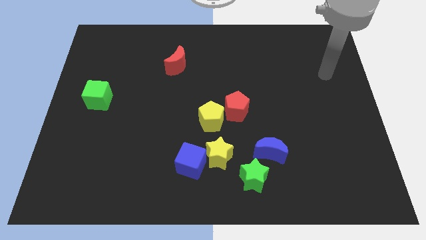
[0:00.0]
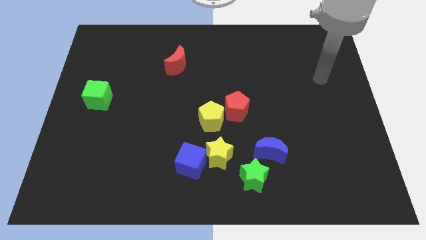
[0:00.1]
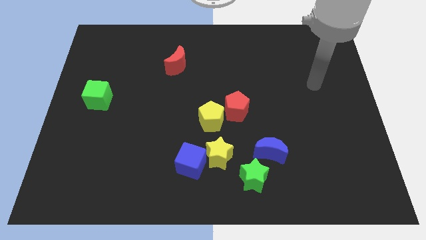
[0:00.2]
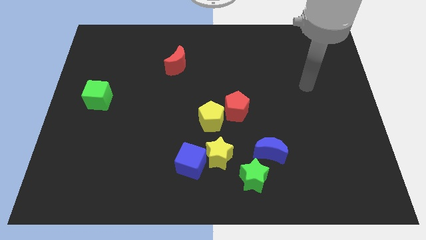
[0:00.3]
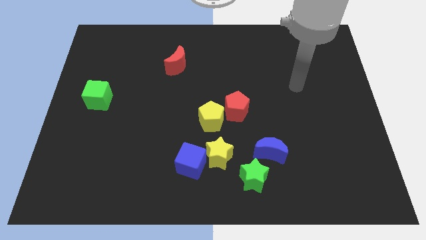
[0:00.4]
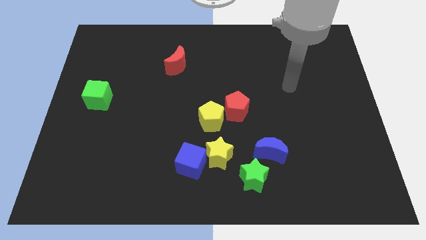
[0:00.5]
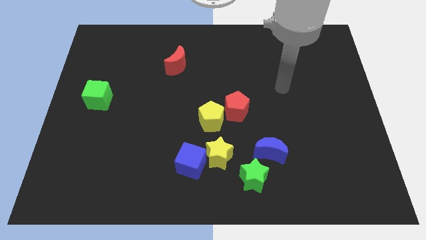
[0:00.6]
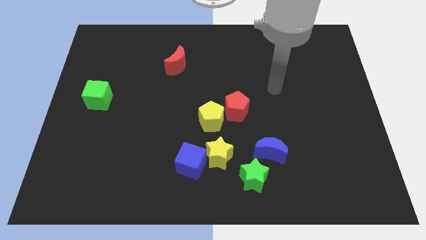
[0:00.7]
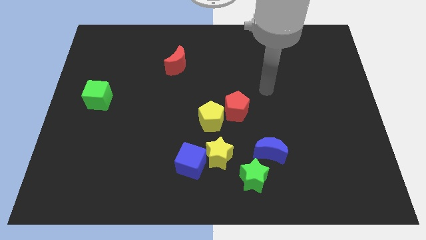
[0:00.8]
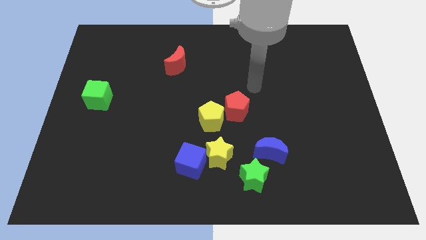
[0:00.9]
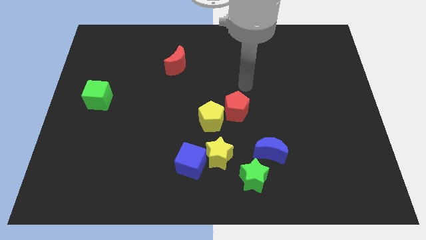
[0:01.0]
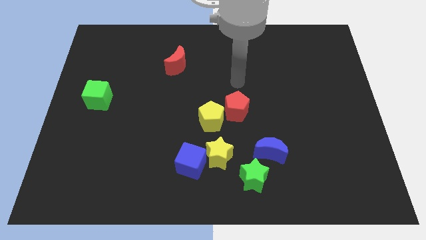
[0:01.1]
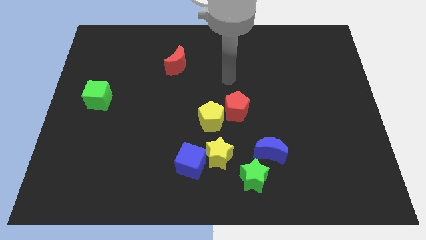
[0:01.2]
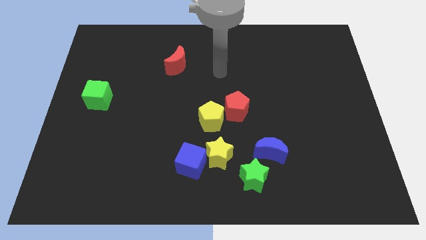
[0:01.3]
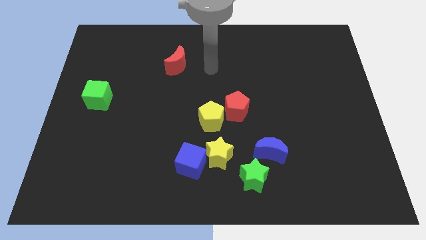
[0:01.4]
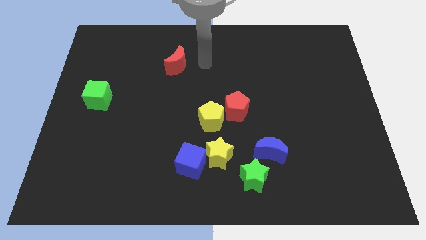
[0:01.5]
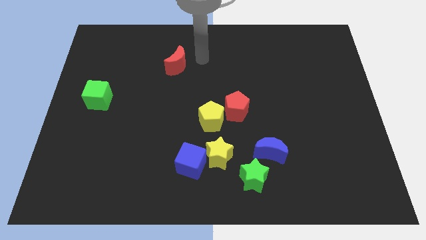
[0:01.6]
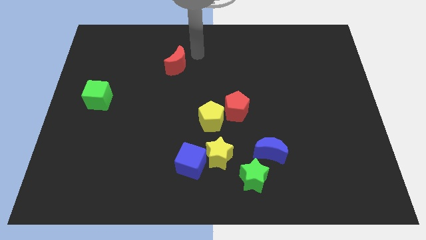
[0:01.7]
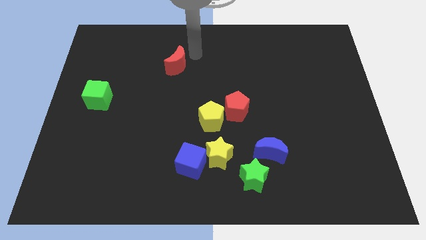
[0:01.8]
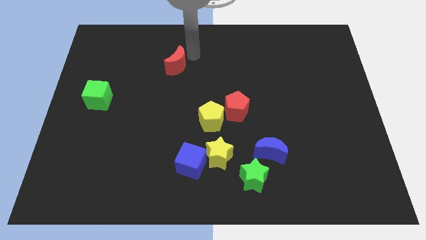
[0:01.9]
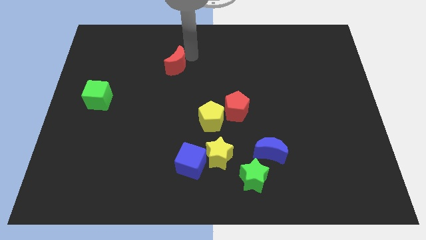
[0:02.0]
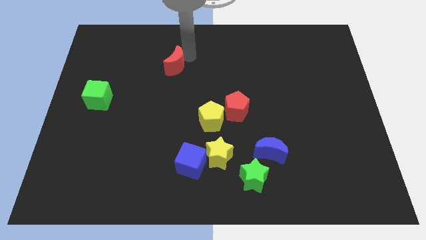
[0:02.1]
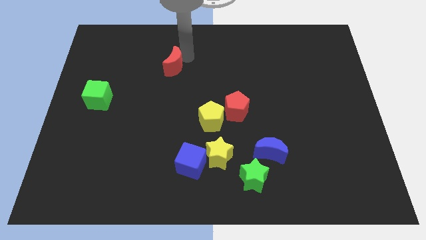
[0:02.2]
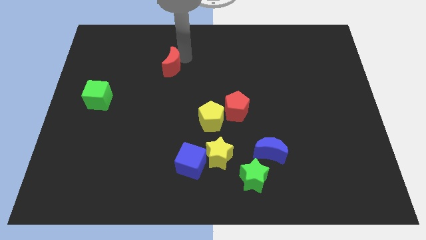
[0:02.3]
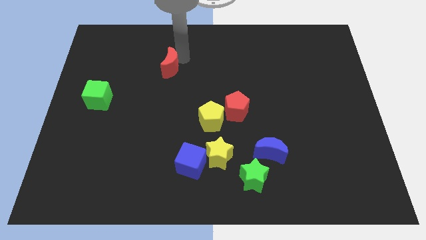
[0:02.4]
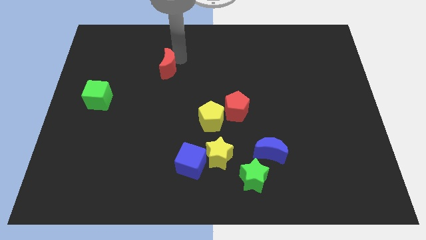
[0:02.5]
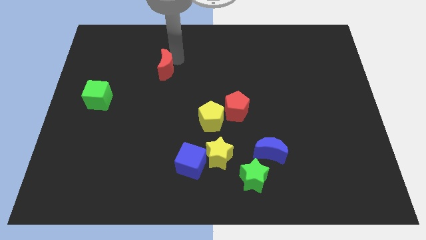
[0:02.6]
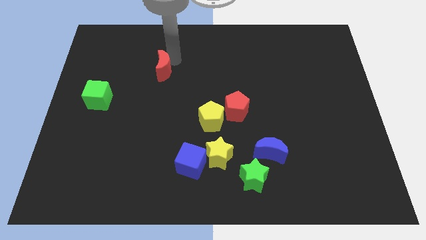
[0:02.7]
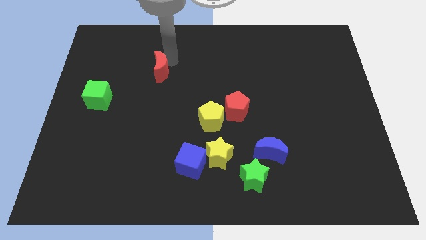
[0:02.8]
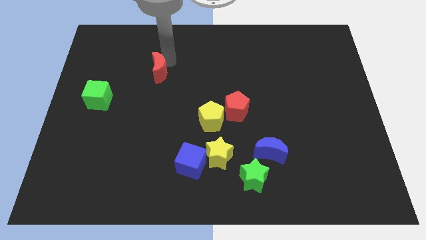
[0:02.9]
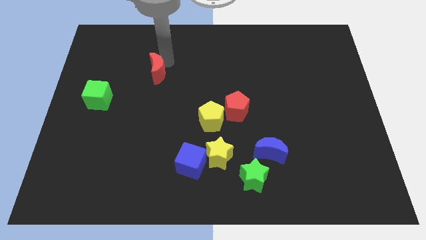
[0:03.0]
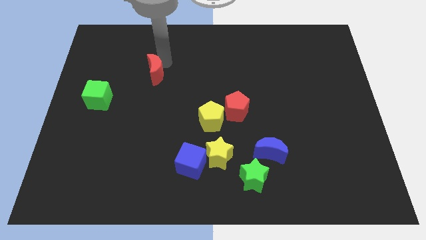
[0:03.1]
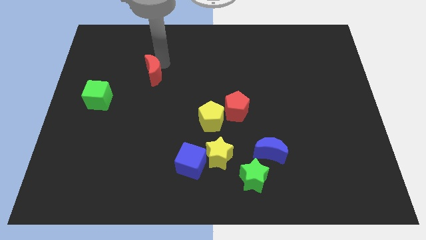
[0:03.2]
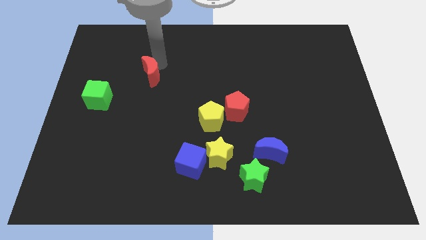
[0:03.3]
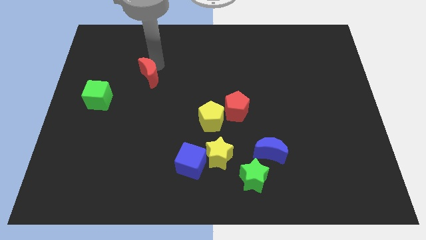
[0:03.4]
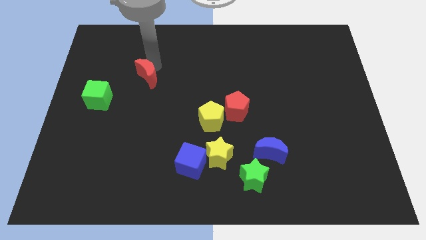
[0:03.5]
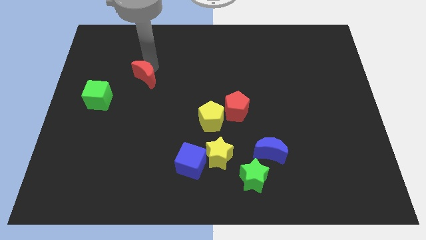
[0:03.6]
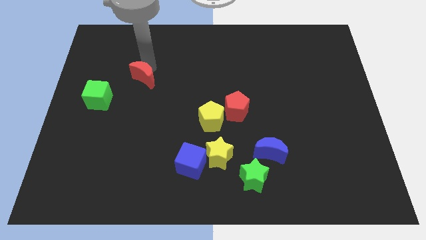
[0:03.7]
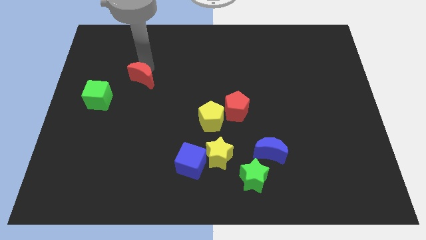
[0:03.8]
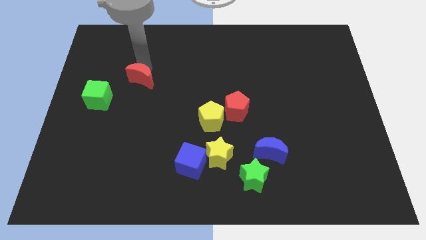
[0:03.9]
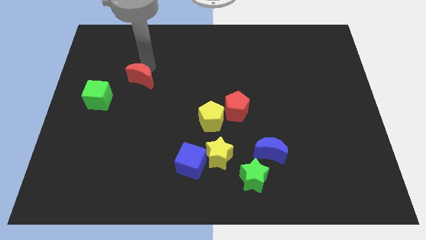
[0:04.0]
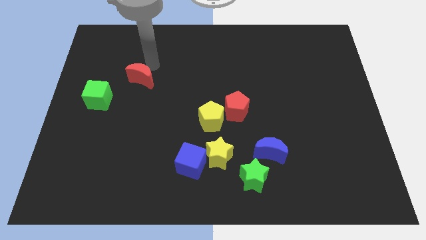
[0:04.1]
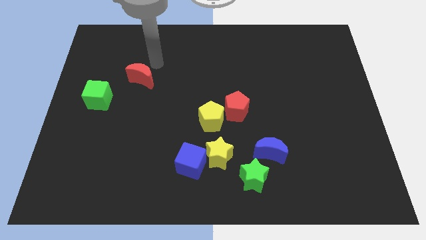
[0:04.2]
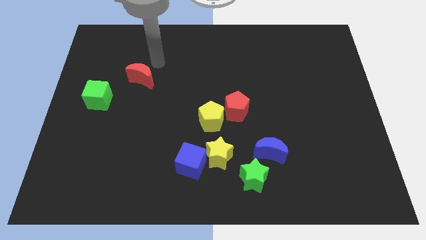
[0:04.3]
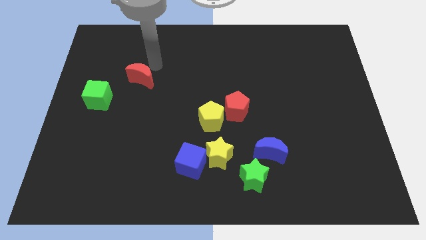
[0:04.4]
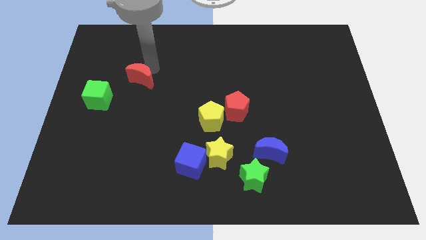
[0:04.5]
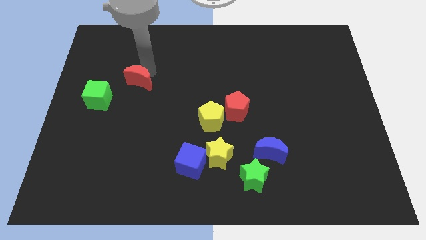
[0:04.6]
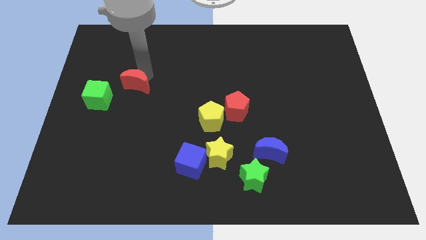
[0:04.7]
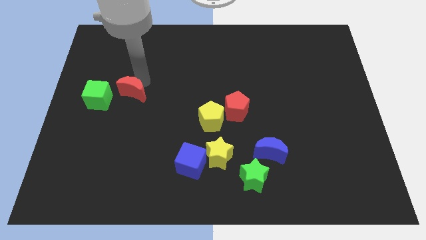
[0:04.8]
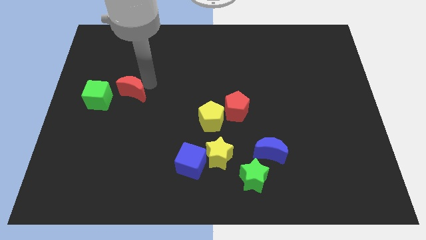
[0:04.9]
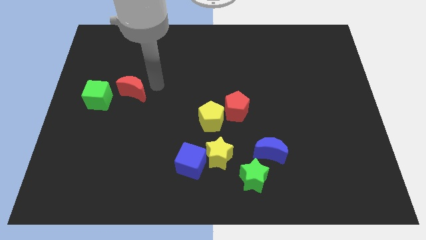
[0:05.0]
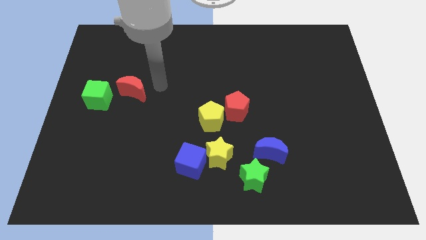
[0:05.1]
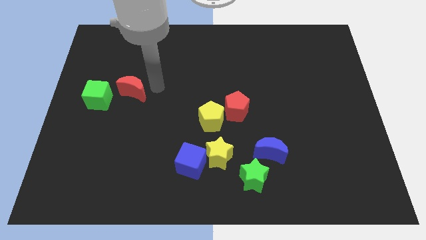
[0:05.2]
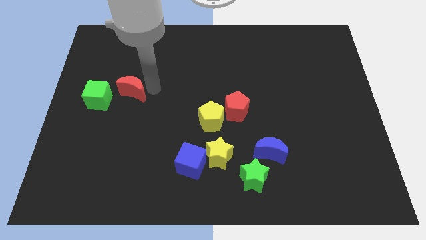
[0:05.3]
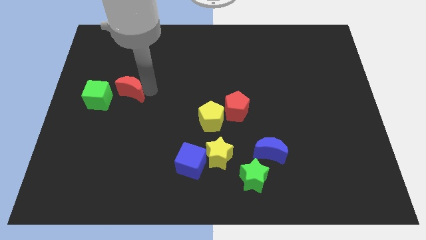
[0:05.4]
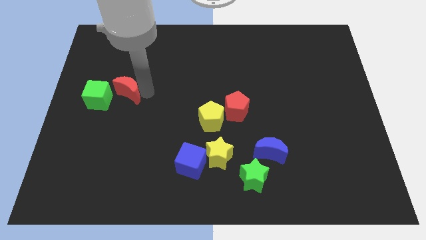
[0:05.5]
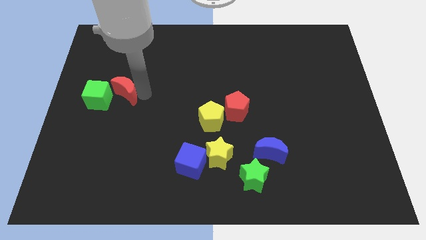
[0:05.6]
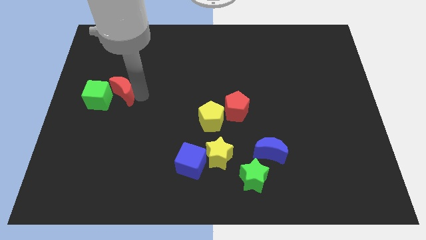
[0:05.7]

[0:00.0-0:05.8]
push the red moon close to the green cube

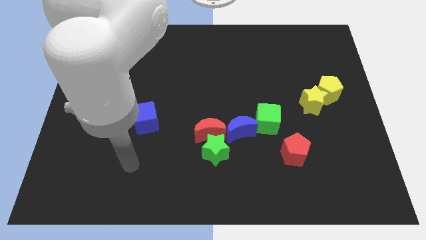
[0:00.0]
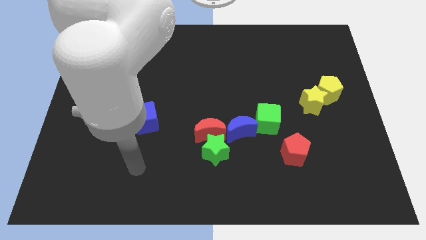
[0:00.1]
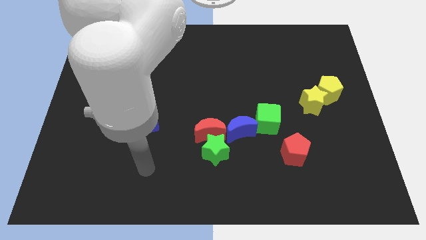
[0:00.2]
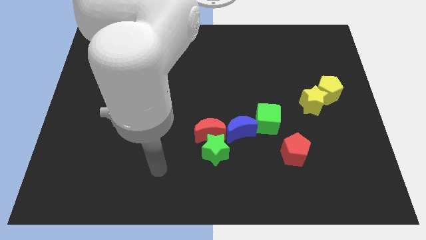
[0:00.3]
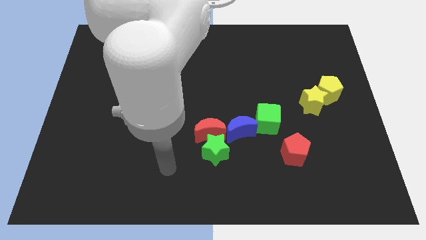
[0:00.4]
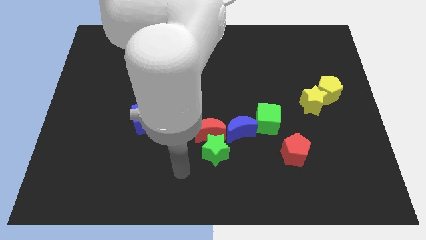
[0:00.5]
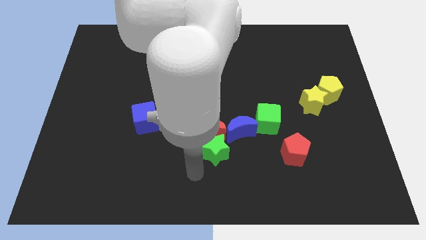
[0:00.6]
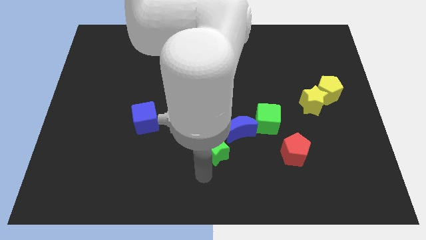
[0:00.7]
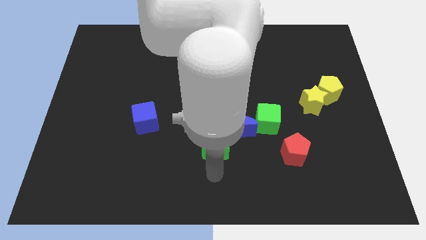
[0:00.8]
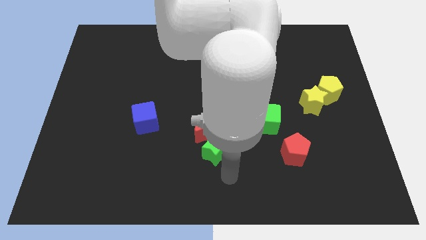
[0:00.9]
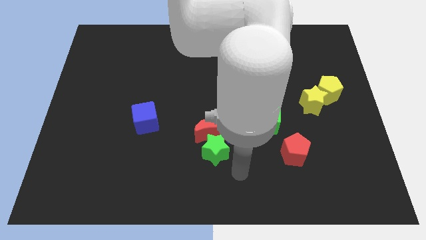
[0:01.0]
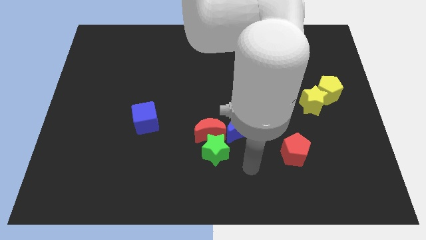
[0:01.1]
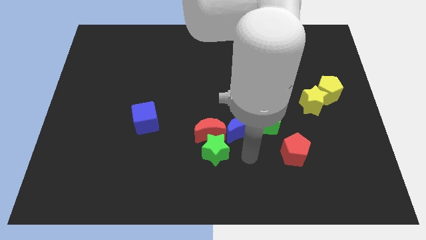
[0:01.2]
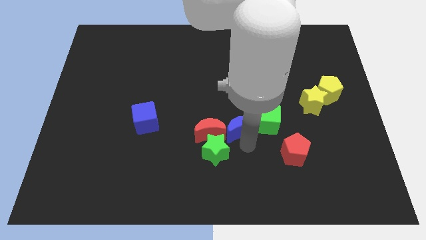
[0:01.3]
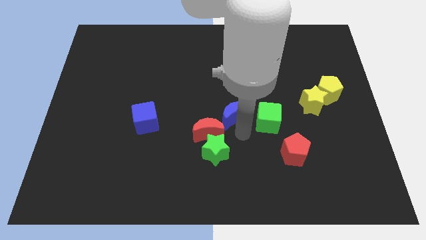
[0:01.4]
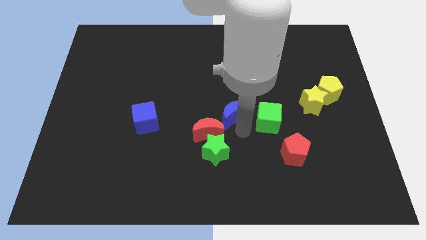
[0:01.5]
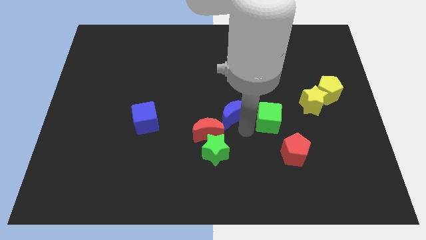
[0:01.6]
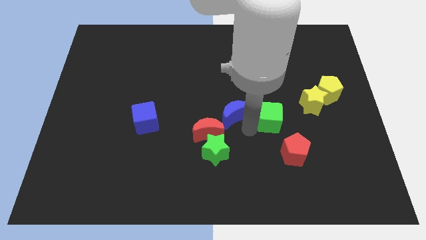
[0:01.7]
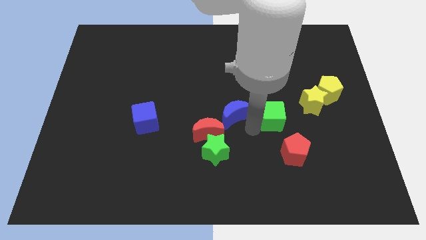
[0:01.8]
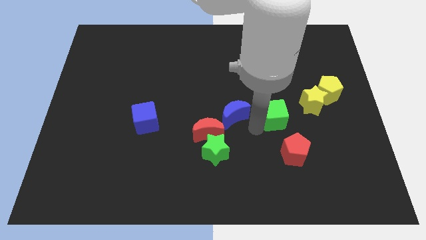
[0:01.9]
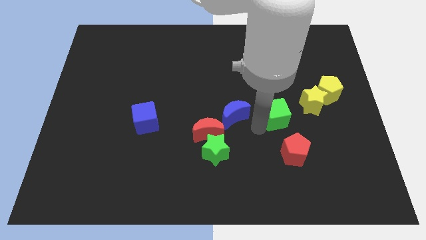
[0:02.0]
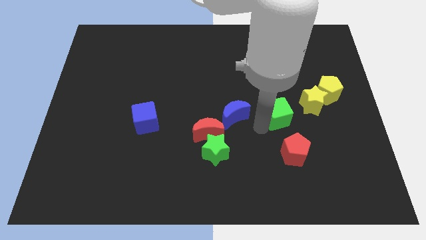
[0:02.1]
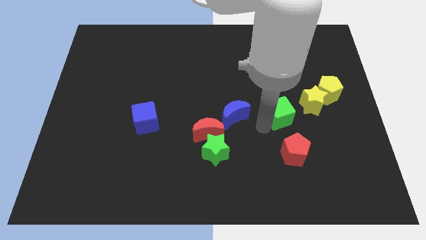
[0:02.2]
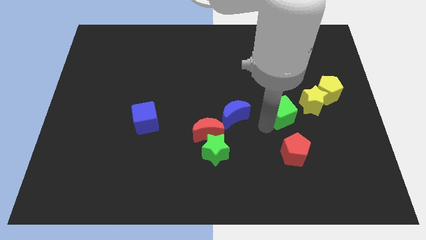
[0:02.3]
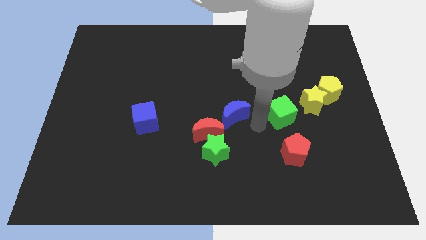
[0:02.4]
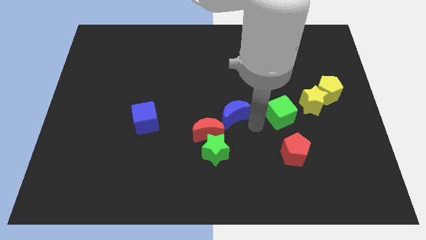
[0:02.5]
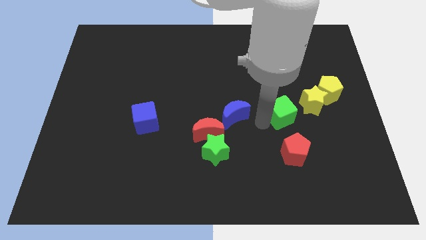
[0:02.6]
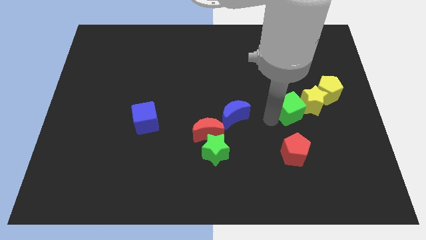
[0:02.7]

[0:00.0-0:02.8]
put the green cube next to the yellow star
